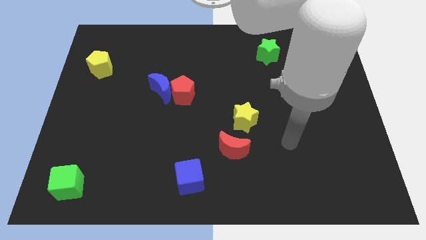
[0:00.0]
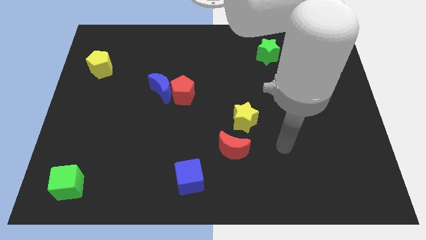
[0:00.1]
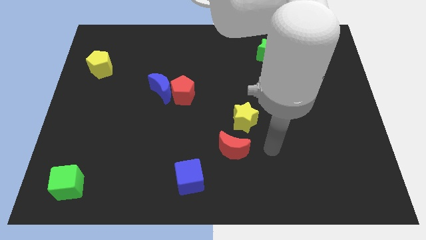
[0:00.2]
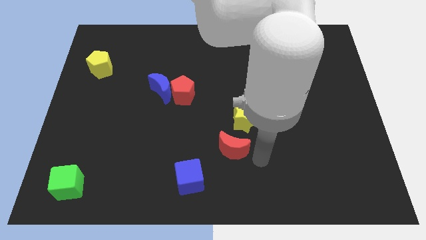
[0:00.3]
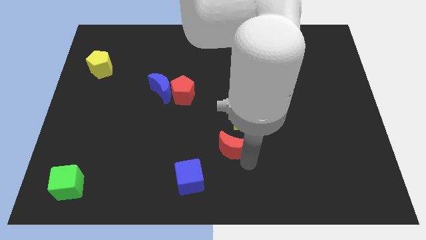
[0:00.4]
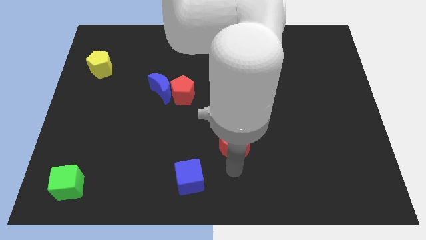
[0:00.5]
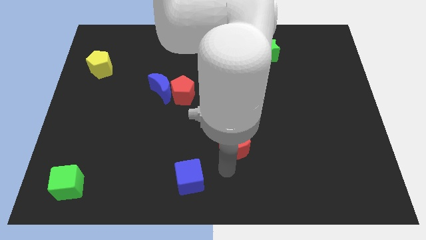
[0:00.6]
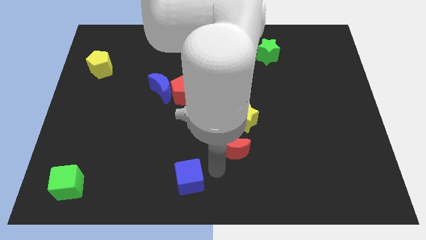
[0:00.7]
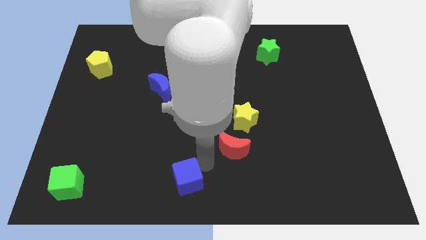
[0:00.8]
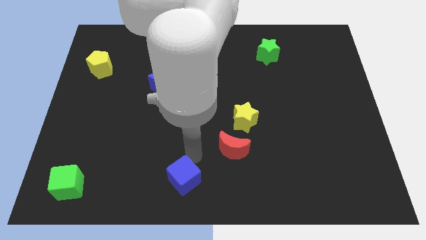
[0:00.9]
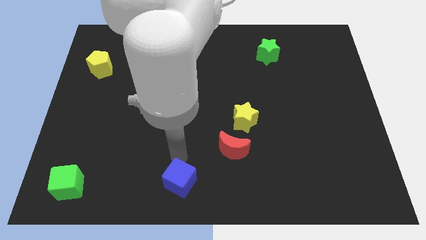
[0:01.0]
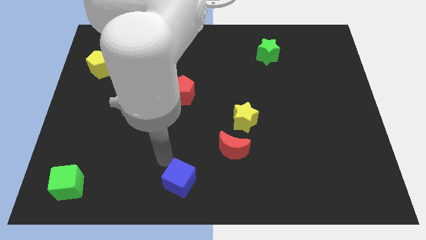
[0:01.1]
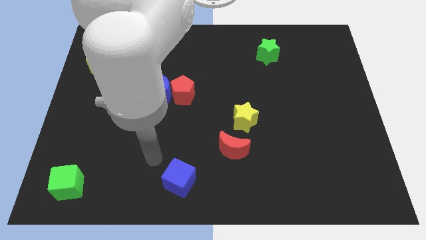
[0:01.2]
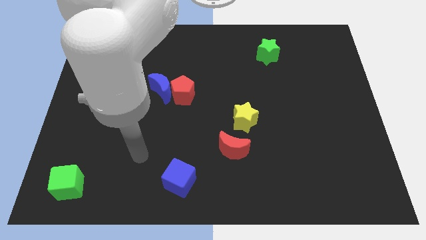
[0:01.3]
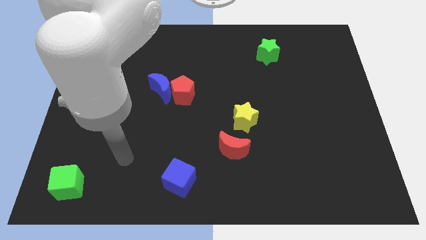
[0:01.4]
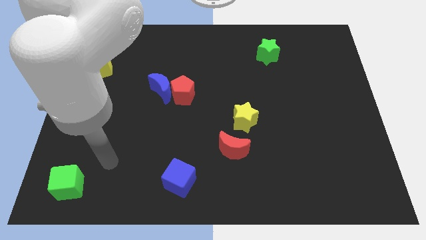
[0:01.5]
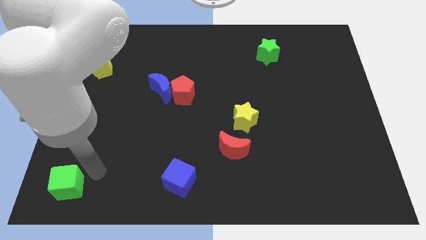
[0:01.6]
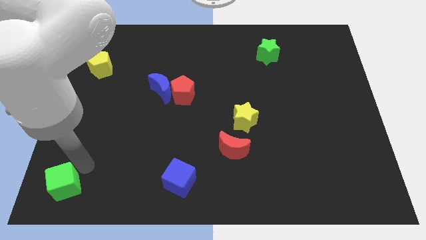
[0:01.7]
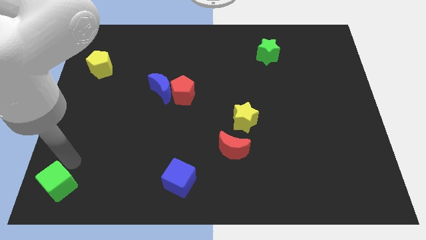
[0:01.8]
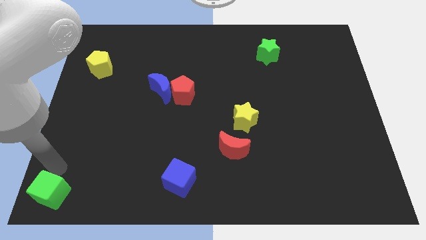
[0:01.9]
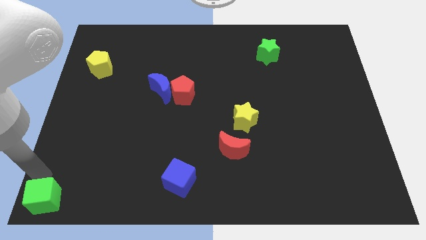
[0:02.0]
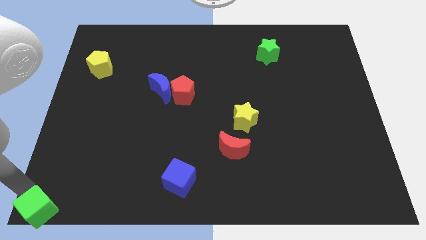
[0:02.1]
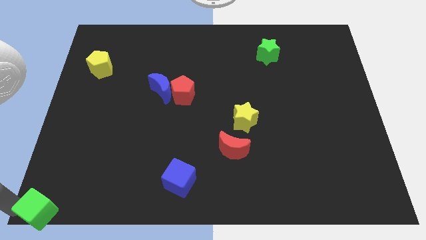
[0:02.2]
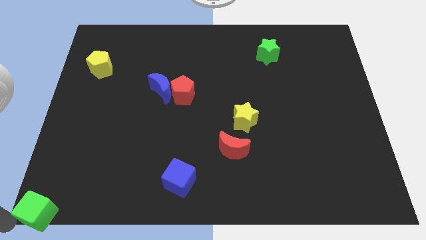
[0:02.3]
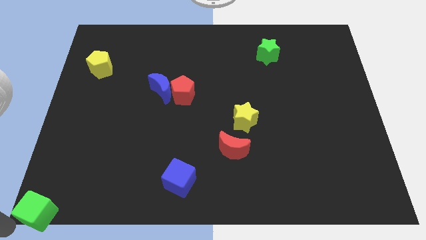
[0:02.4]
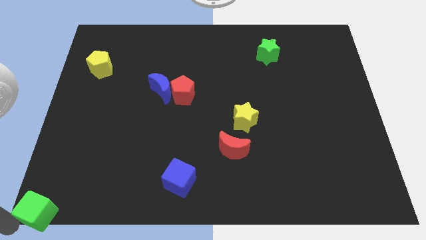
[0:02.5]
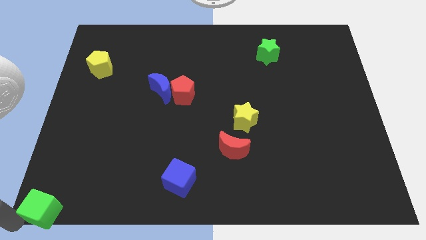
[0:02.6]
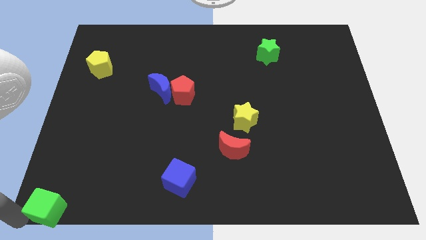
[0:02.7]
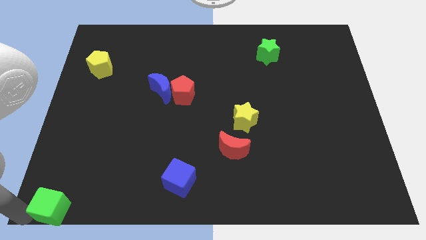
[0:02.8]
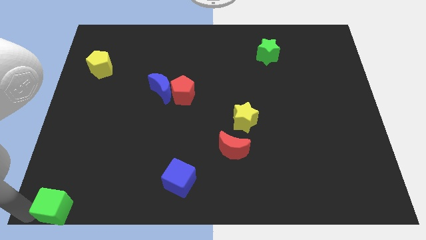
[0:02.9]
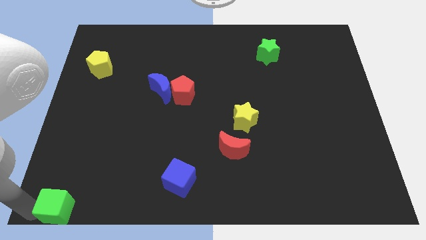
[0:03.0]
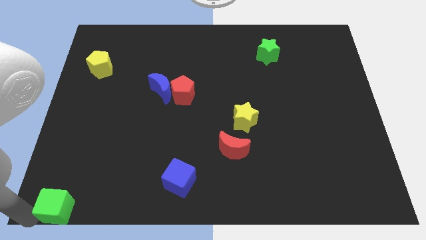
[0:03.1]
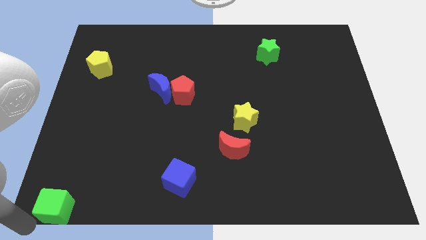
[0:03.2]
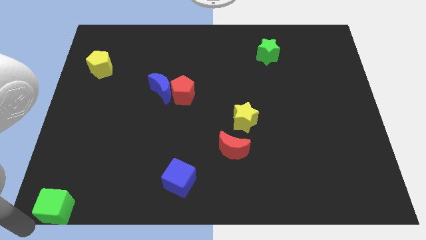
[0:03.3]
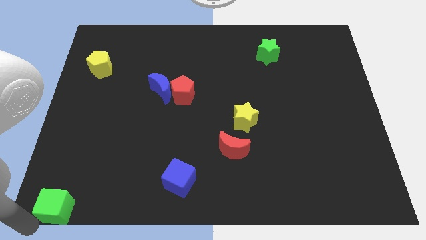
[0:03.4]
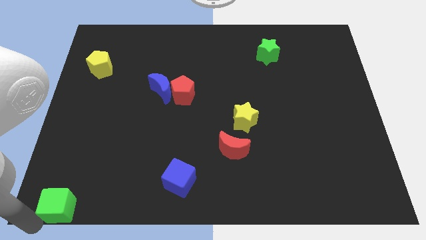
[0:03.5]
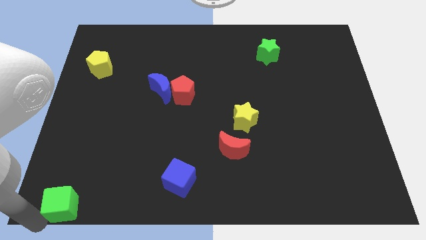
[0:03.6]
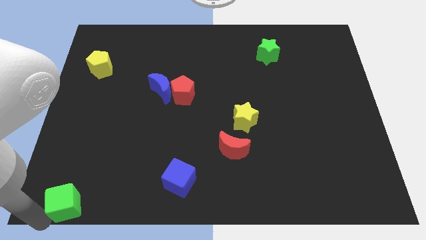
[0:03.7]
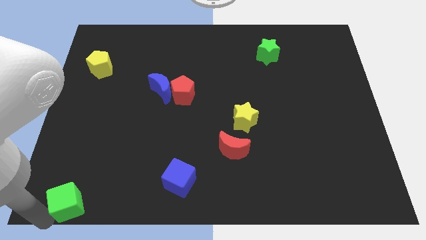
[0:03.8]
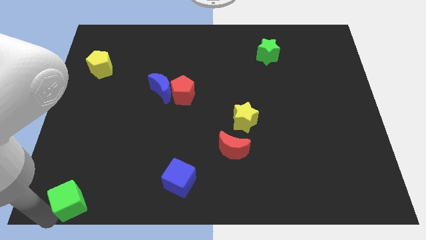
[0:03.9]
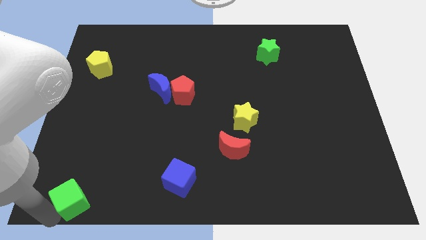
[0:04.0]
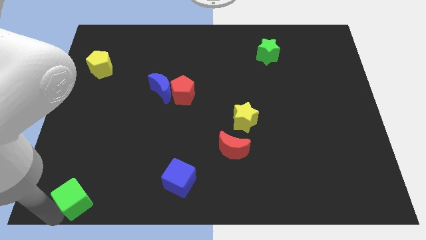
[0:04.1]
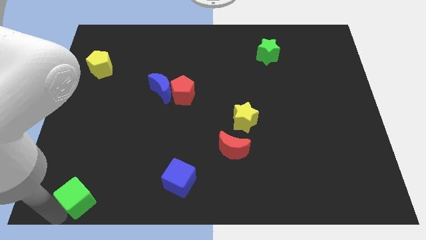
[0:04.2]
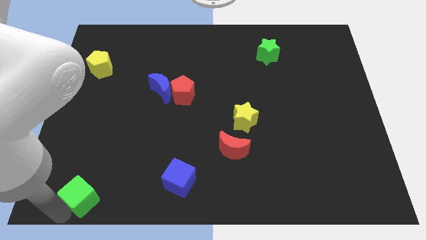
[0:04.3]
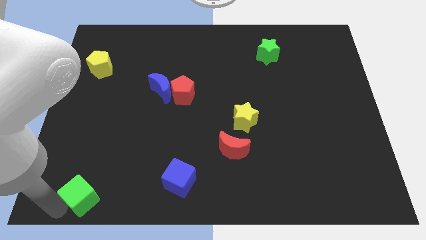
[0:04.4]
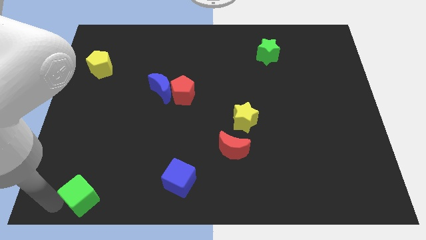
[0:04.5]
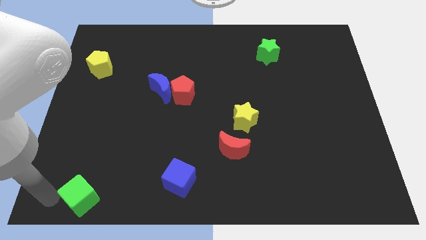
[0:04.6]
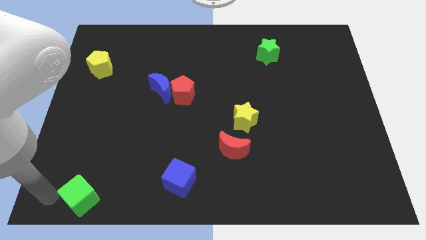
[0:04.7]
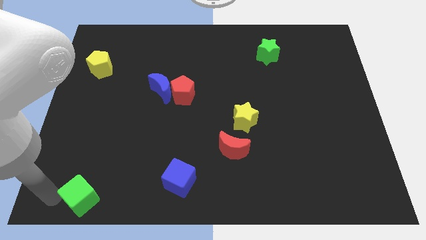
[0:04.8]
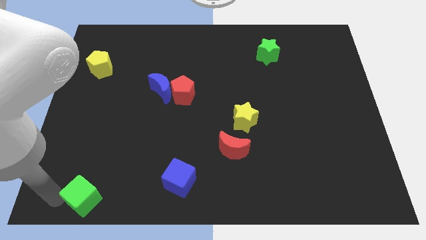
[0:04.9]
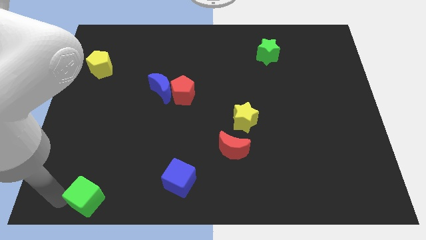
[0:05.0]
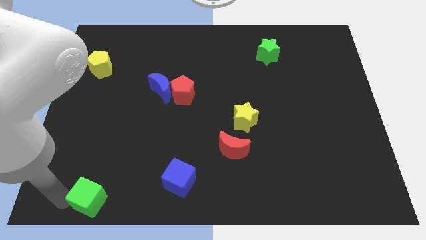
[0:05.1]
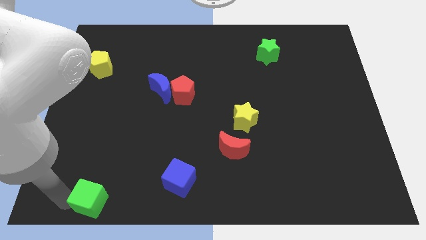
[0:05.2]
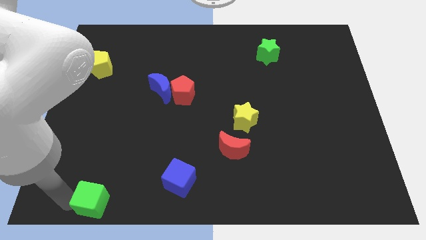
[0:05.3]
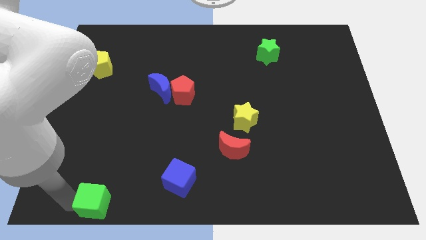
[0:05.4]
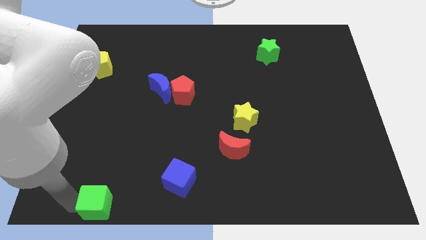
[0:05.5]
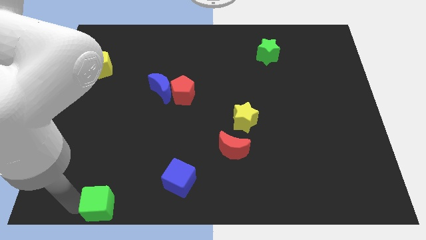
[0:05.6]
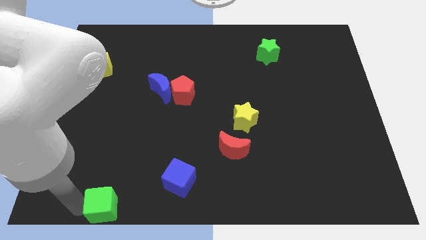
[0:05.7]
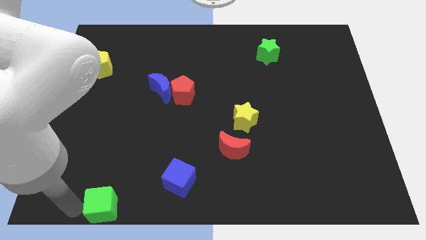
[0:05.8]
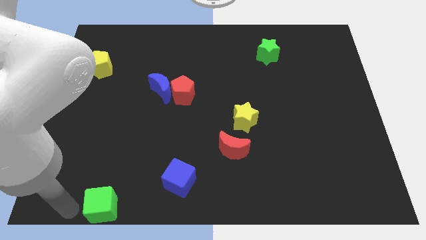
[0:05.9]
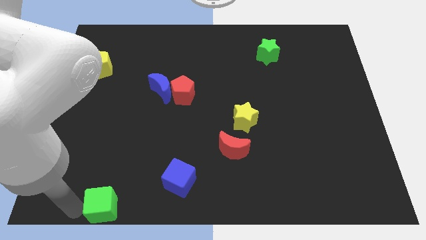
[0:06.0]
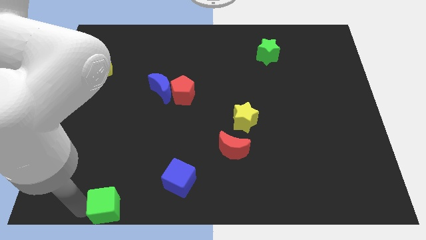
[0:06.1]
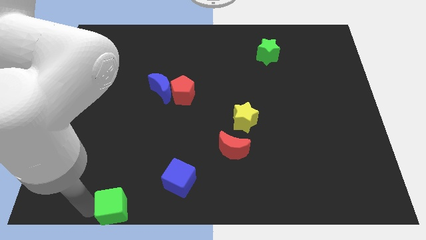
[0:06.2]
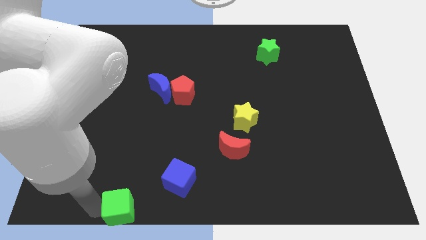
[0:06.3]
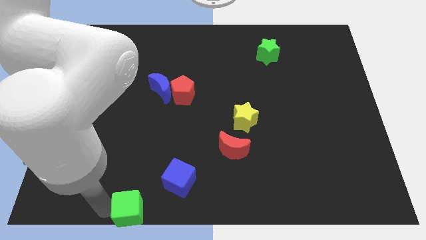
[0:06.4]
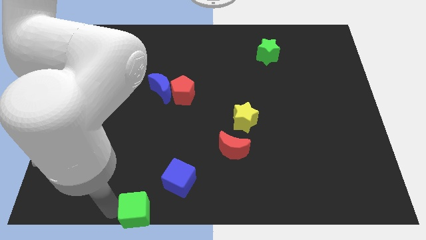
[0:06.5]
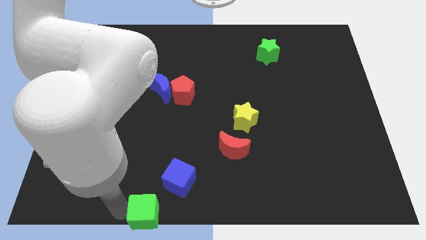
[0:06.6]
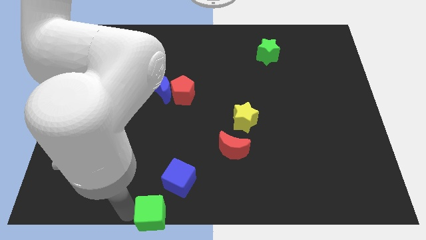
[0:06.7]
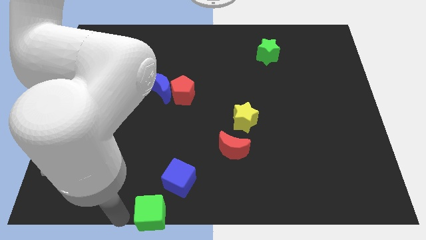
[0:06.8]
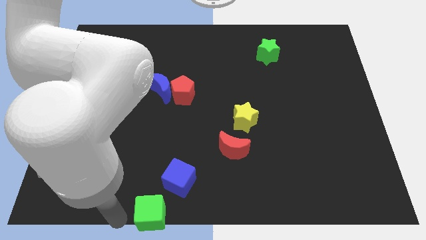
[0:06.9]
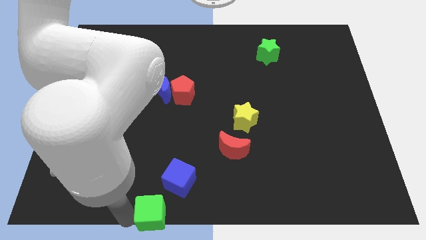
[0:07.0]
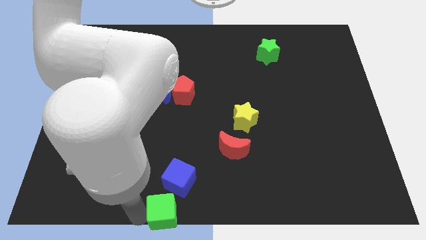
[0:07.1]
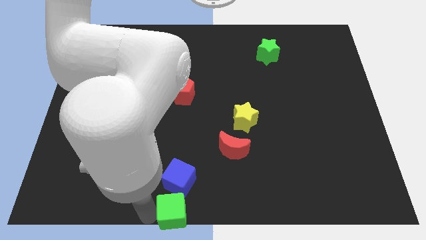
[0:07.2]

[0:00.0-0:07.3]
push the green cube to the right

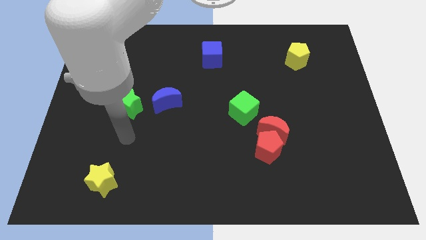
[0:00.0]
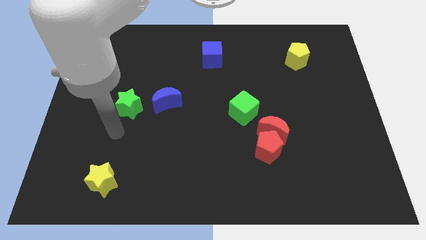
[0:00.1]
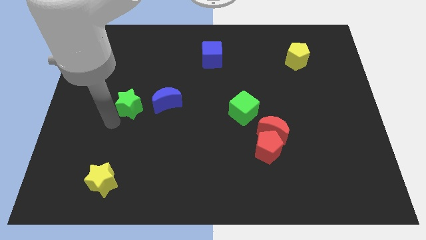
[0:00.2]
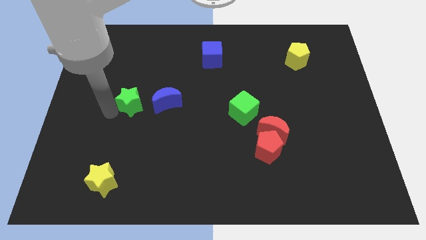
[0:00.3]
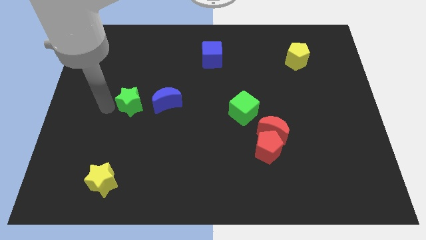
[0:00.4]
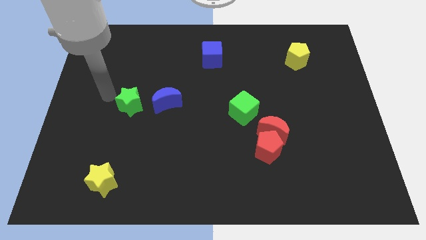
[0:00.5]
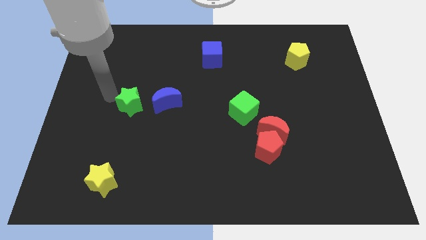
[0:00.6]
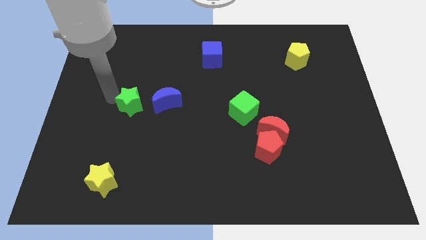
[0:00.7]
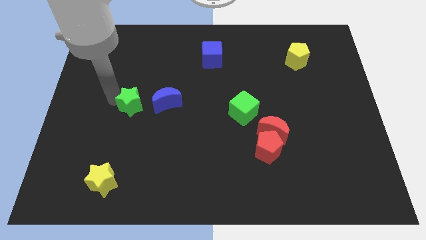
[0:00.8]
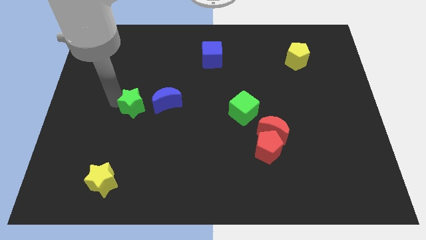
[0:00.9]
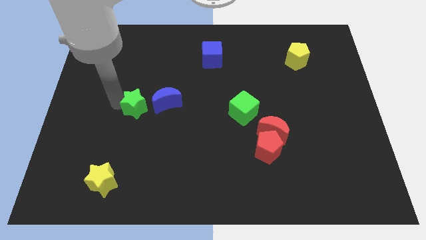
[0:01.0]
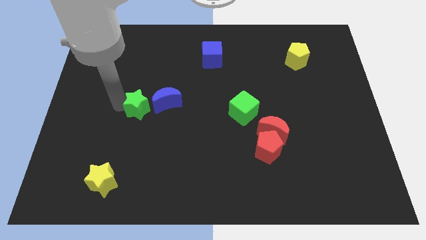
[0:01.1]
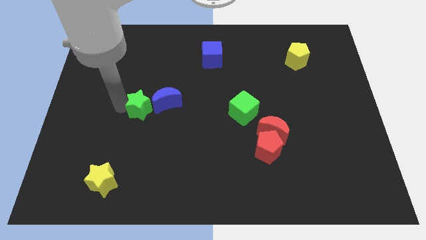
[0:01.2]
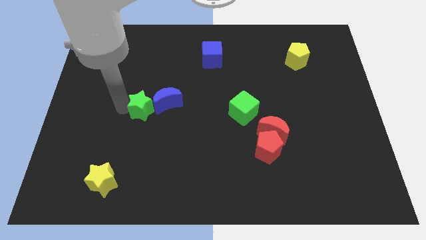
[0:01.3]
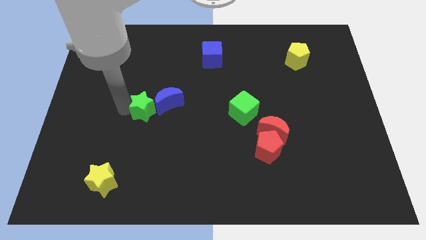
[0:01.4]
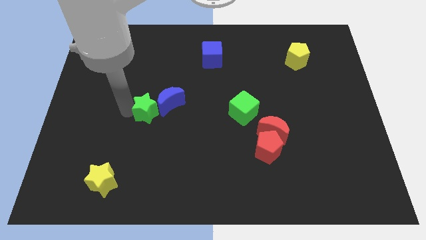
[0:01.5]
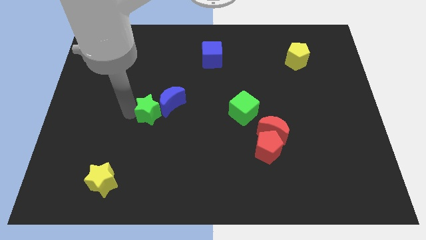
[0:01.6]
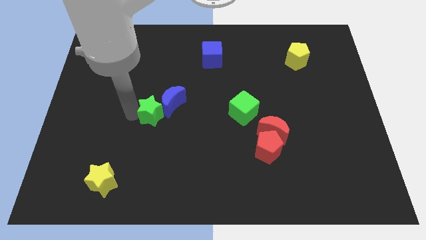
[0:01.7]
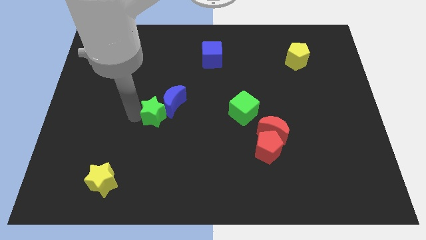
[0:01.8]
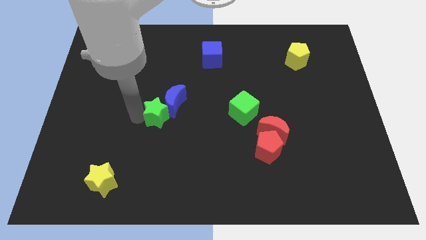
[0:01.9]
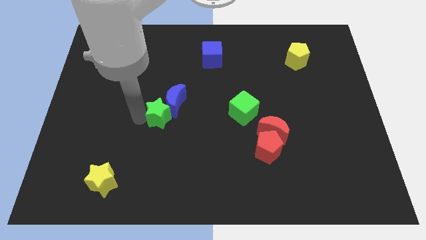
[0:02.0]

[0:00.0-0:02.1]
push the green star right somewhat
